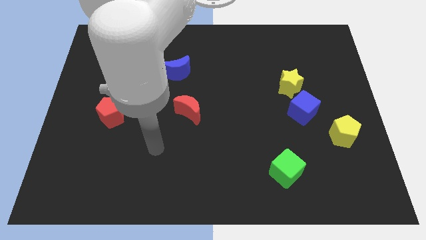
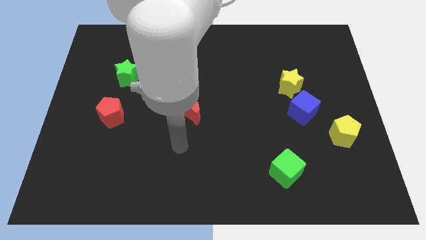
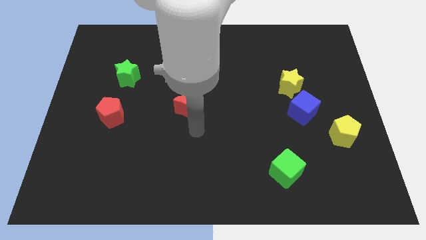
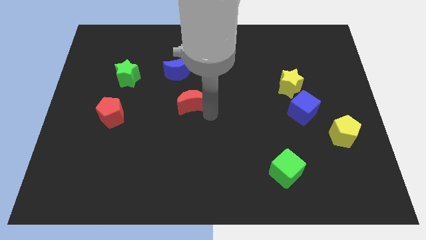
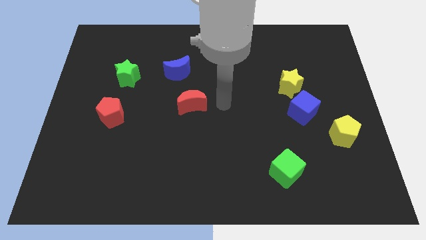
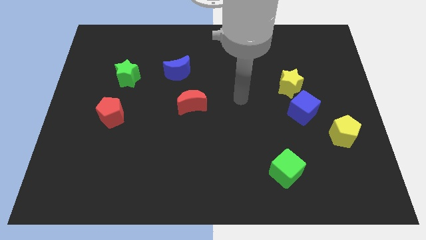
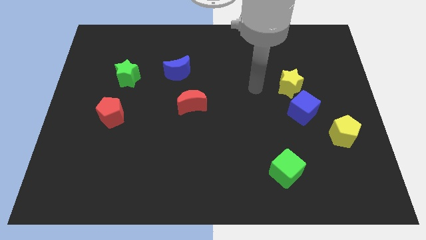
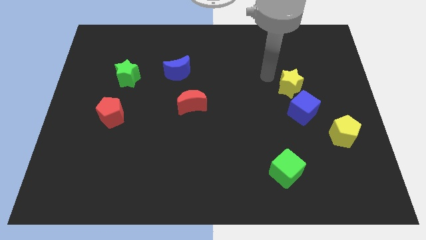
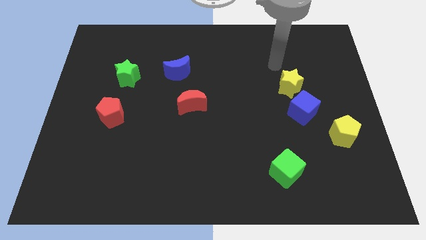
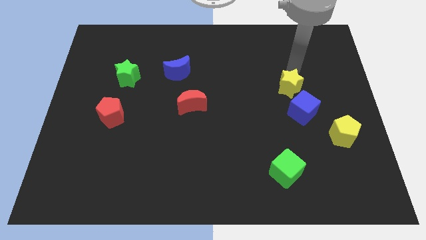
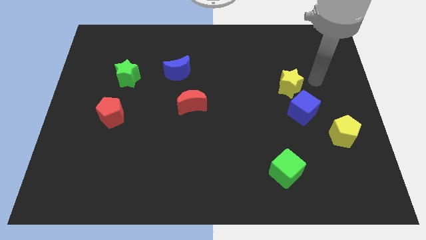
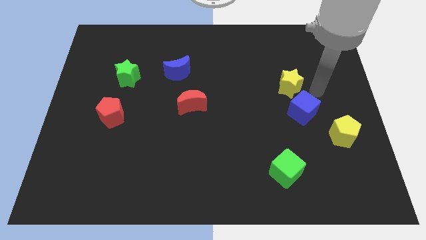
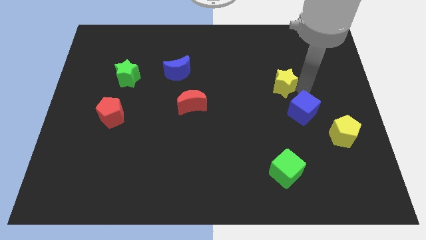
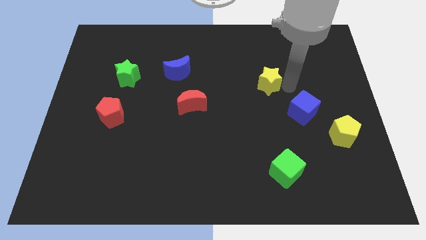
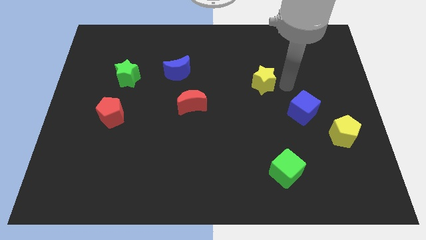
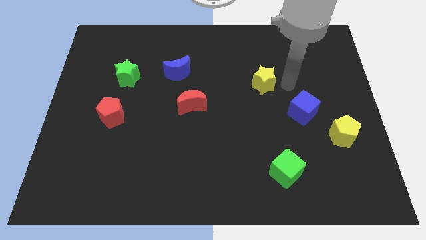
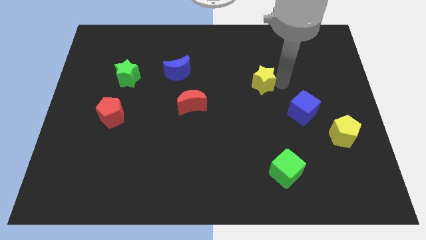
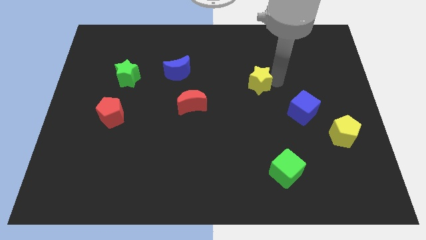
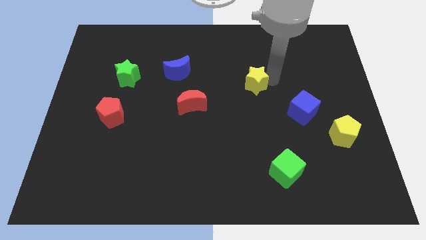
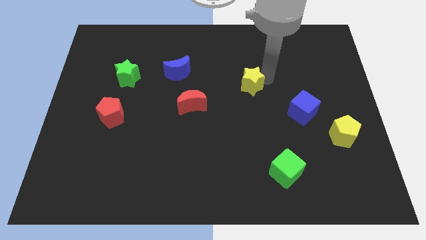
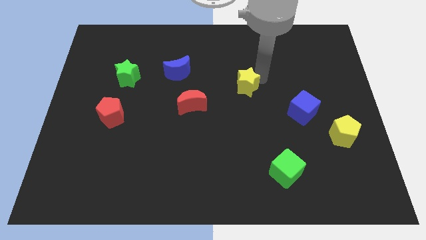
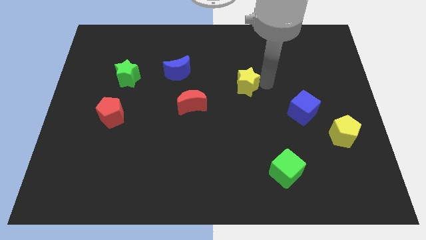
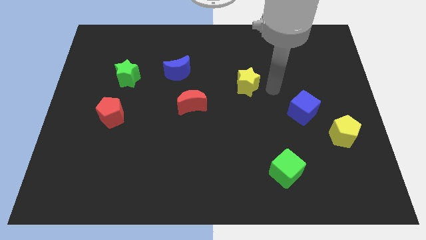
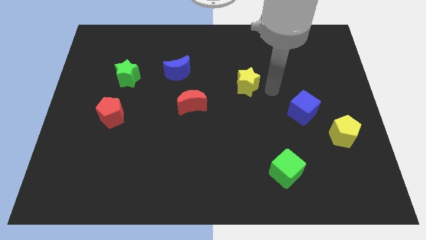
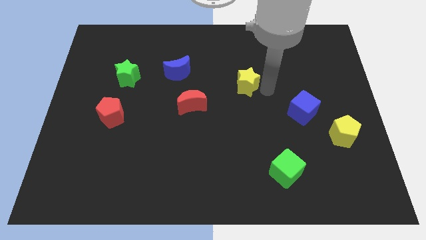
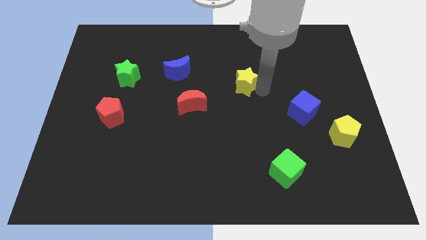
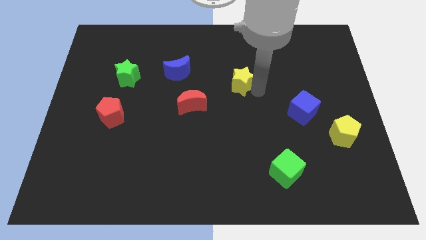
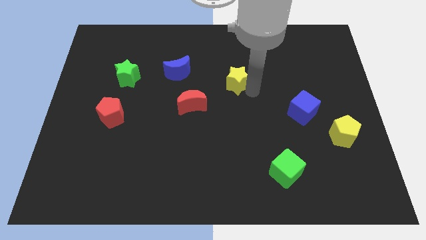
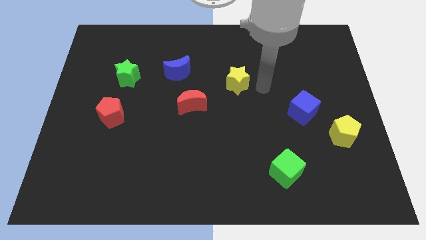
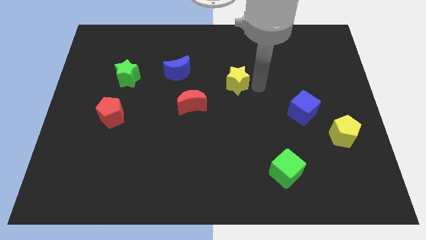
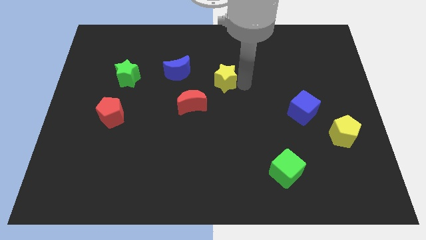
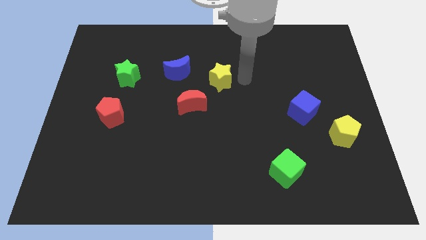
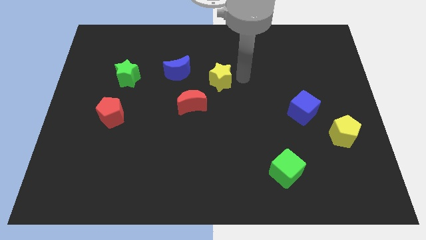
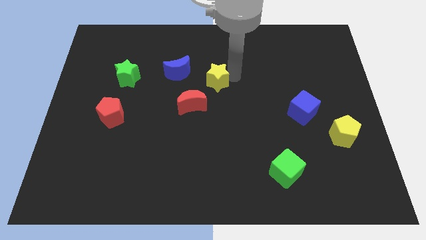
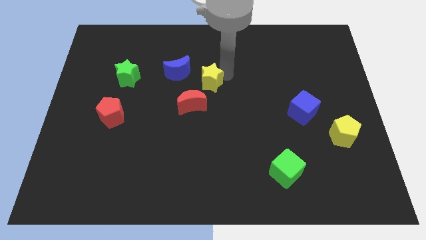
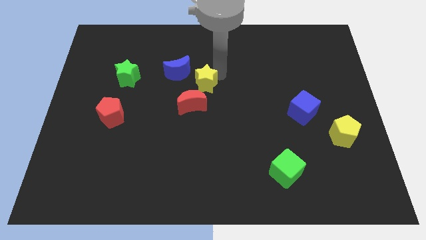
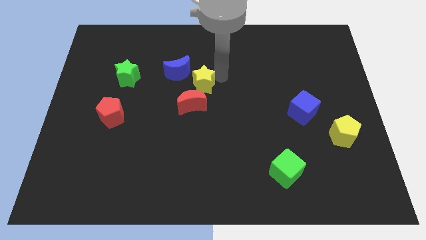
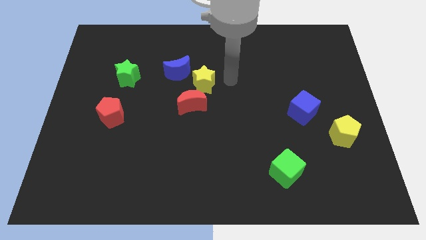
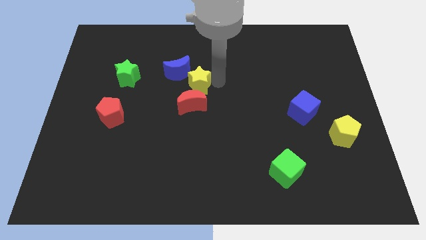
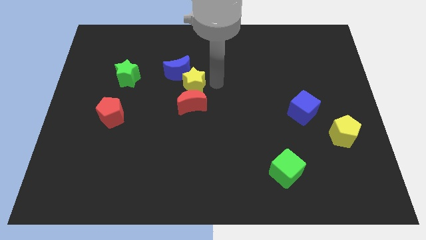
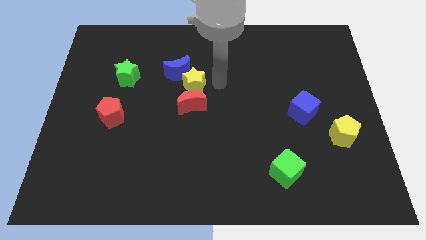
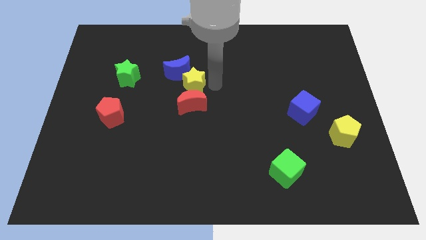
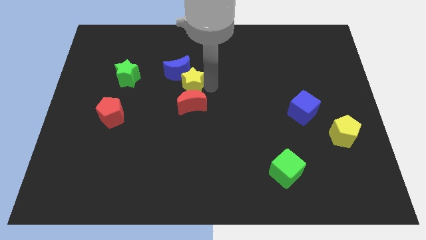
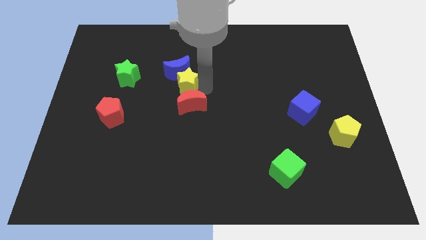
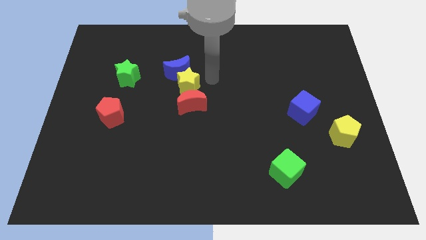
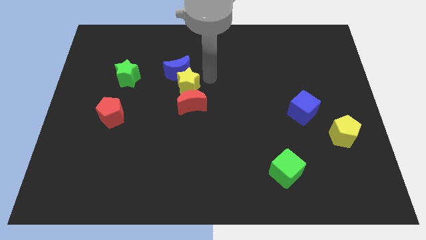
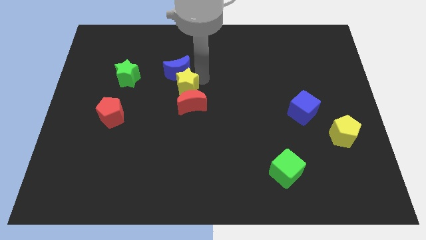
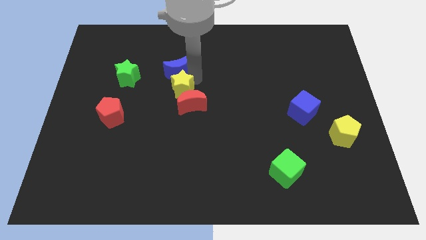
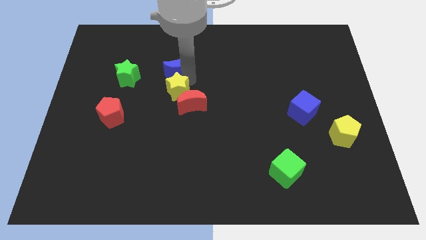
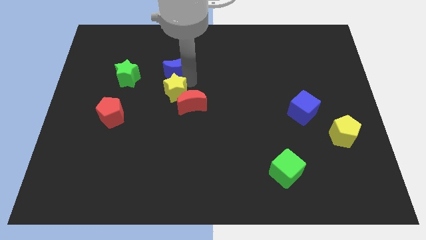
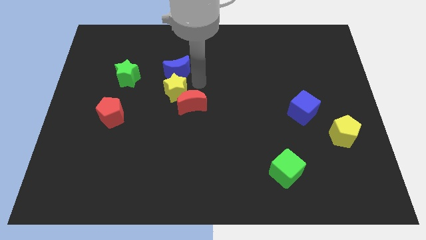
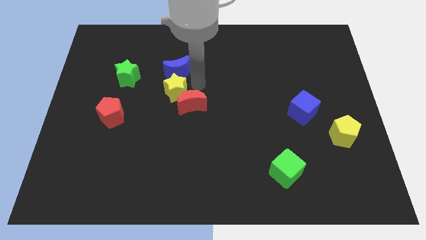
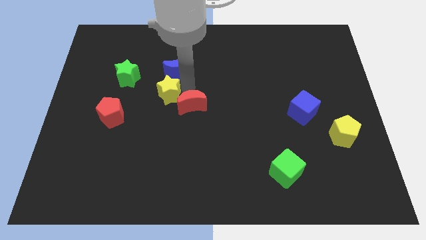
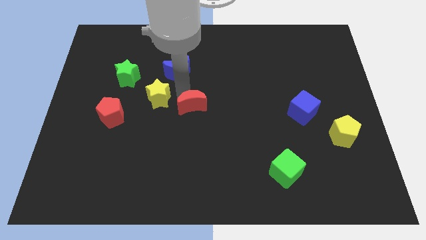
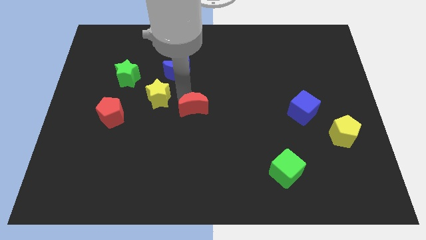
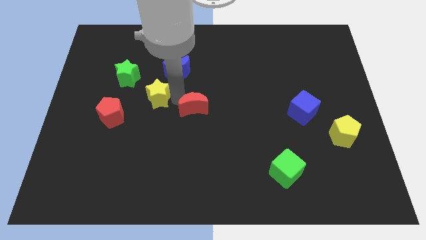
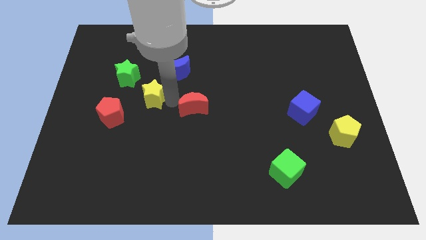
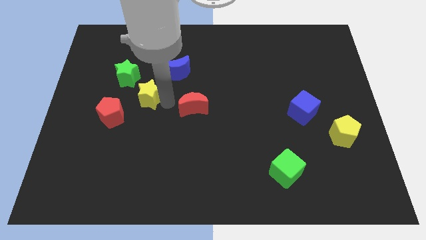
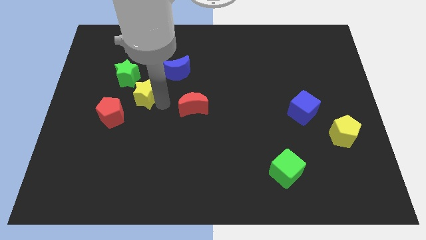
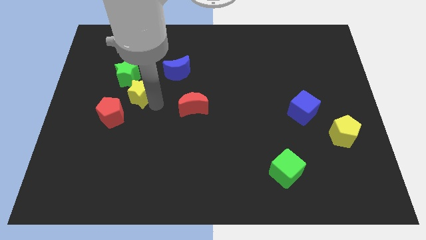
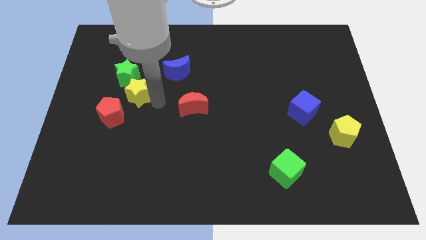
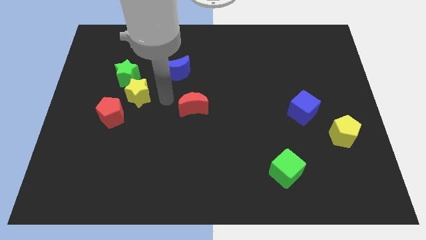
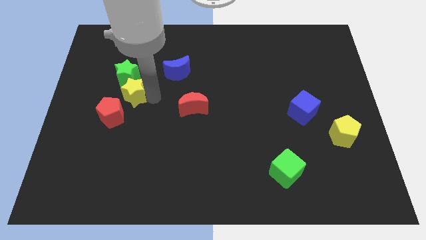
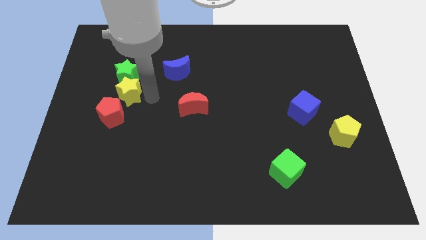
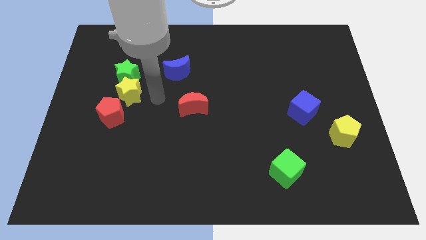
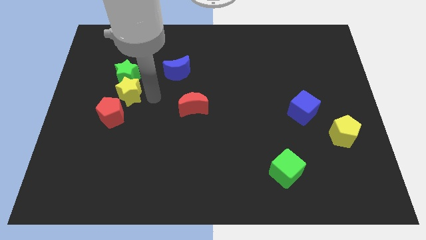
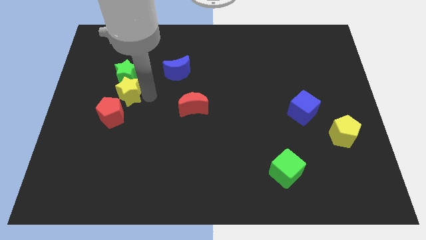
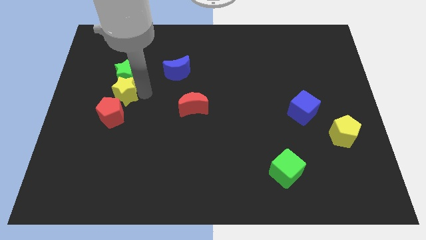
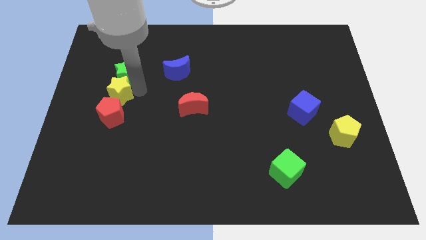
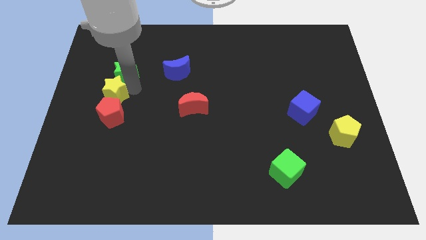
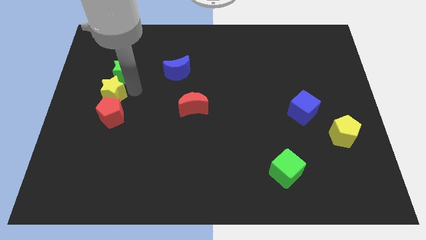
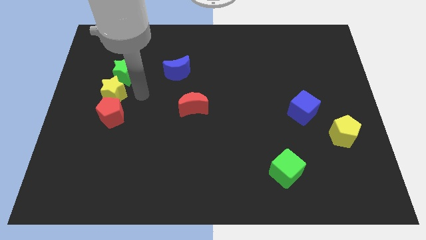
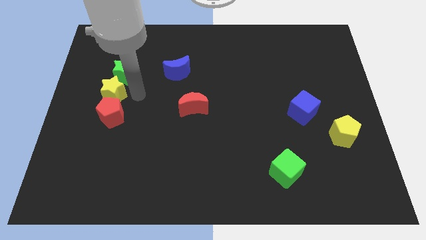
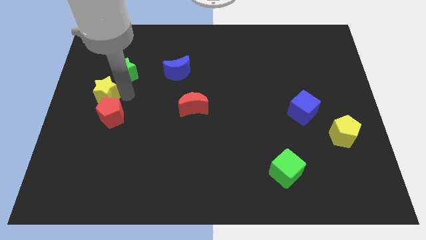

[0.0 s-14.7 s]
slide the yellow star to the center left
